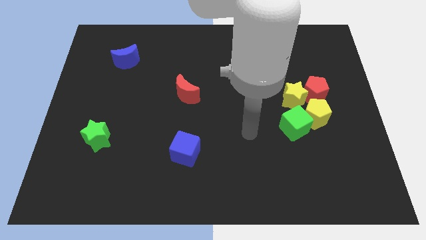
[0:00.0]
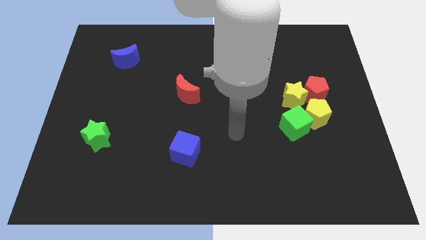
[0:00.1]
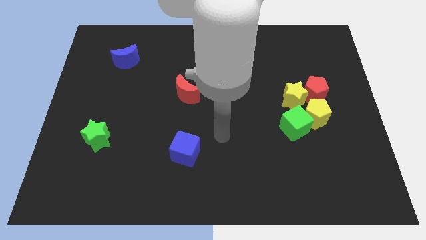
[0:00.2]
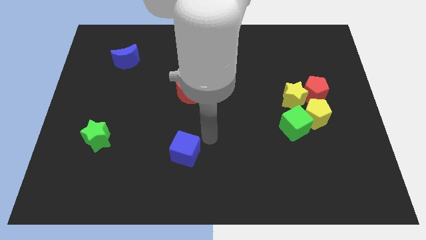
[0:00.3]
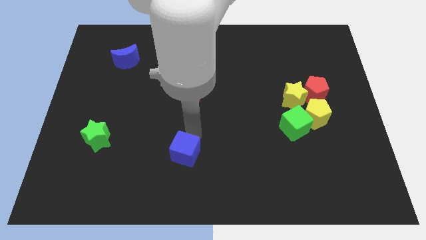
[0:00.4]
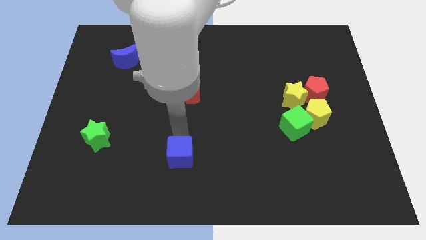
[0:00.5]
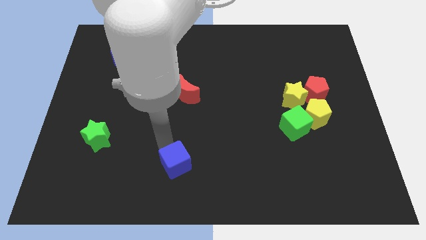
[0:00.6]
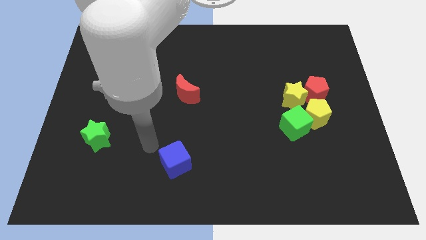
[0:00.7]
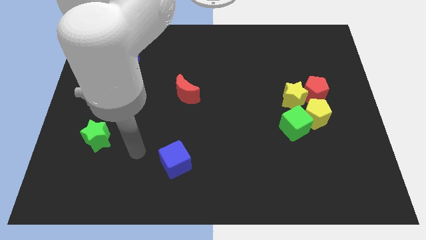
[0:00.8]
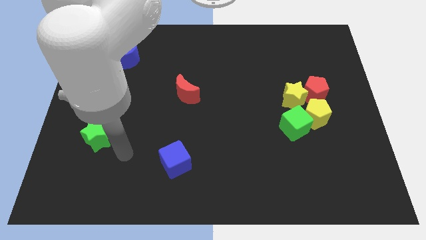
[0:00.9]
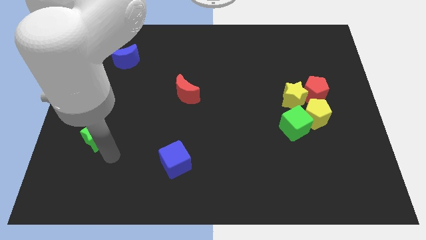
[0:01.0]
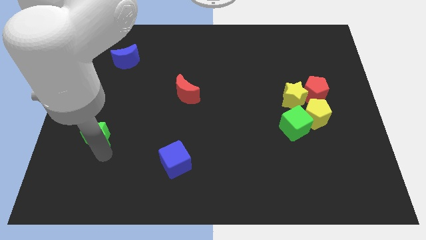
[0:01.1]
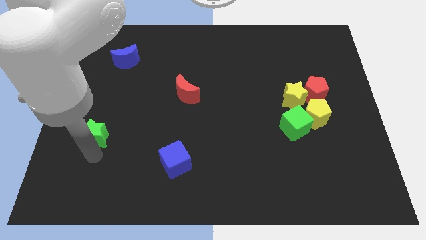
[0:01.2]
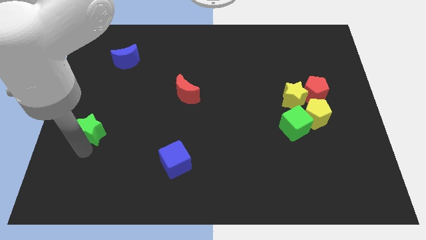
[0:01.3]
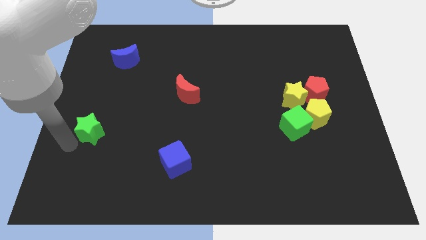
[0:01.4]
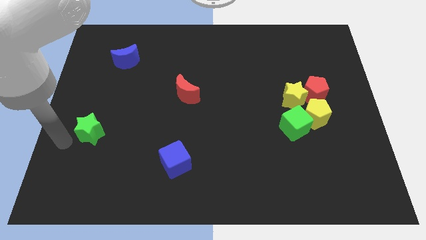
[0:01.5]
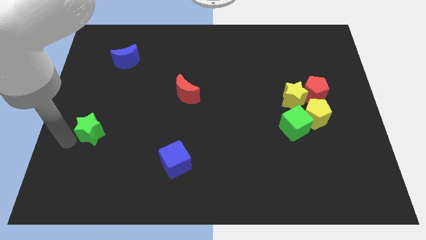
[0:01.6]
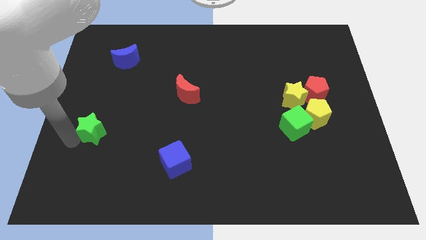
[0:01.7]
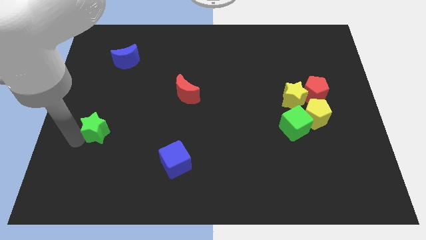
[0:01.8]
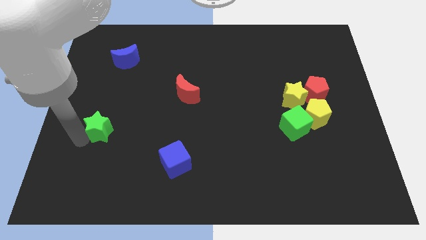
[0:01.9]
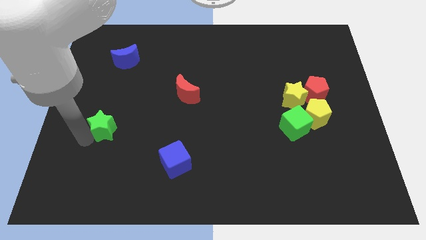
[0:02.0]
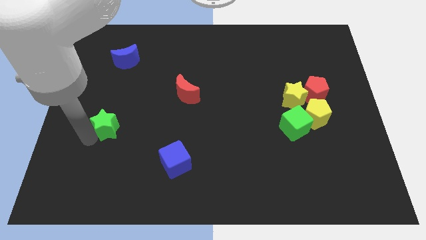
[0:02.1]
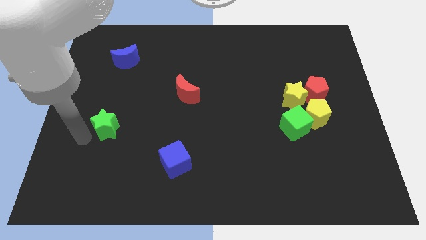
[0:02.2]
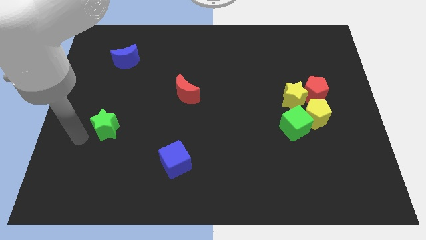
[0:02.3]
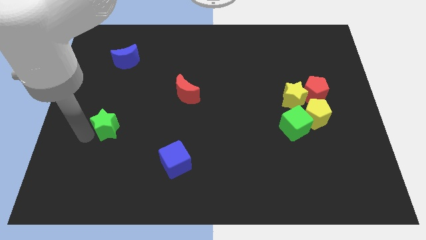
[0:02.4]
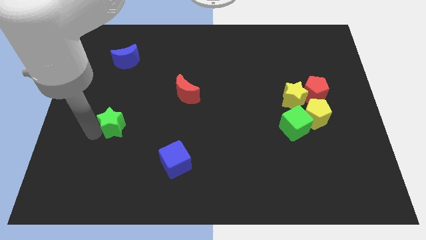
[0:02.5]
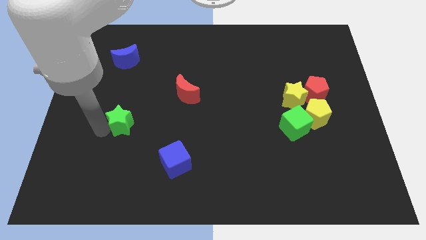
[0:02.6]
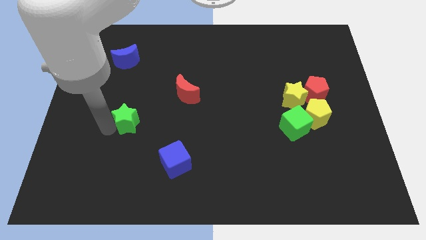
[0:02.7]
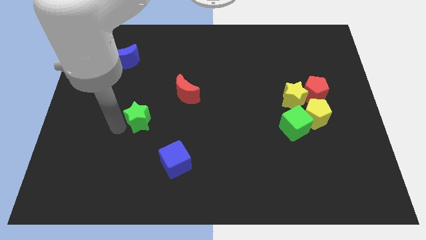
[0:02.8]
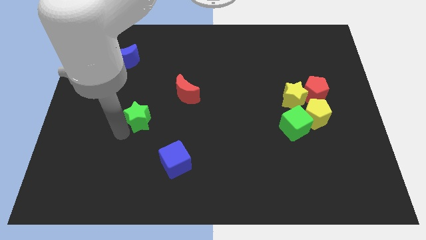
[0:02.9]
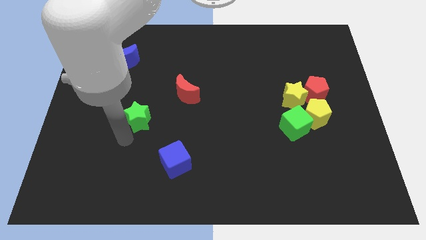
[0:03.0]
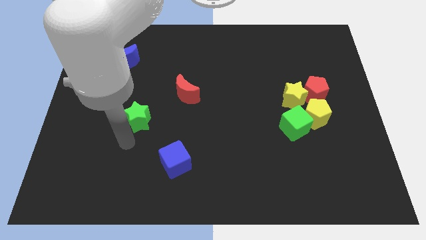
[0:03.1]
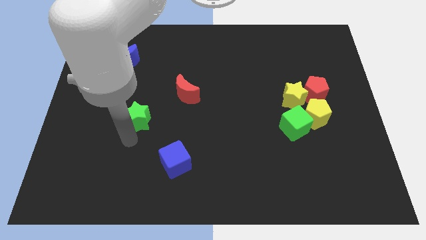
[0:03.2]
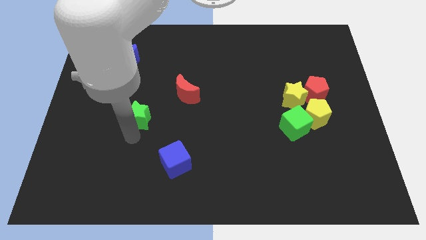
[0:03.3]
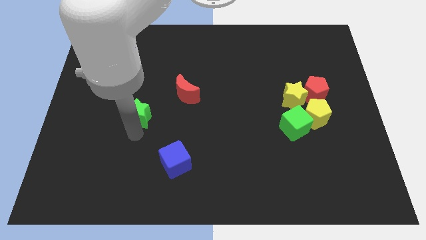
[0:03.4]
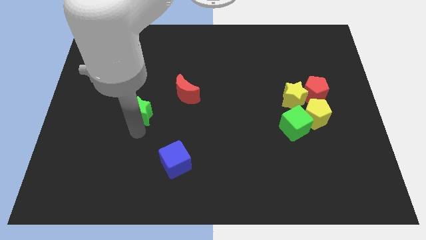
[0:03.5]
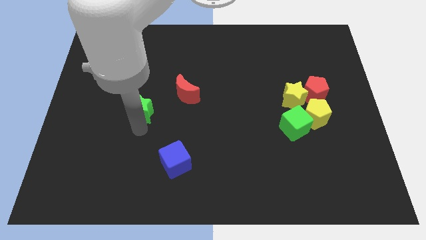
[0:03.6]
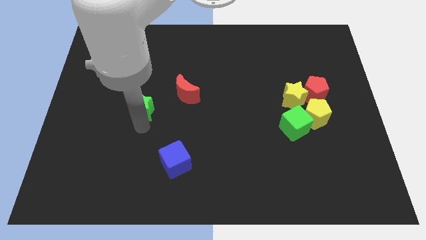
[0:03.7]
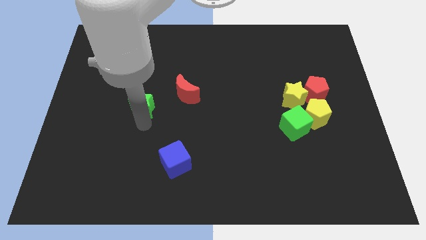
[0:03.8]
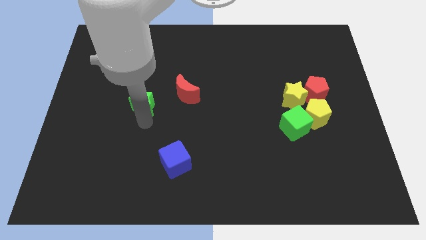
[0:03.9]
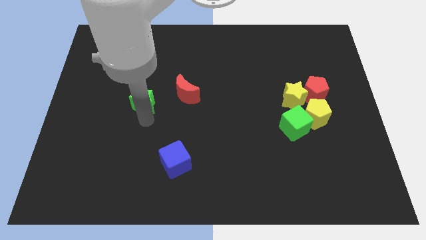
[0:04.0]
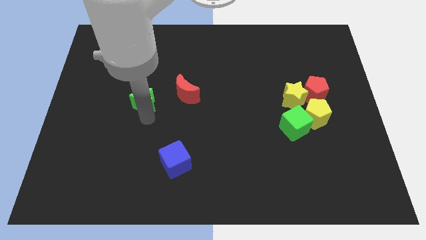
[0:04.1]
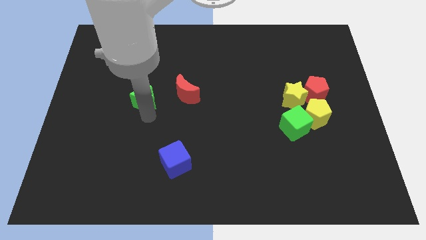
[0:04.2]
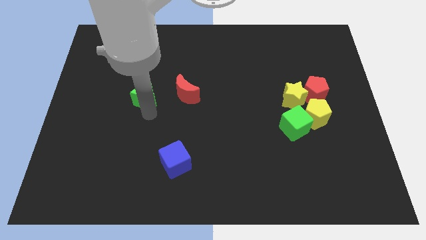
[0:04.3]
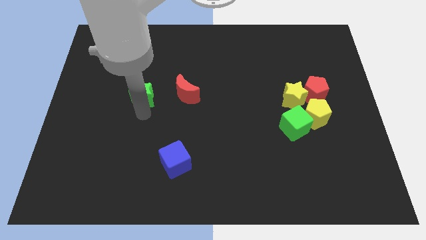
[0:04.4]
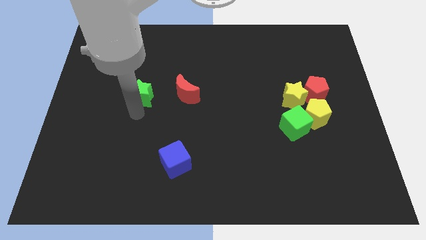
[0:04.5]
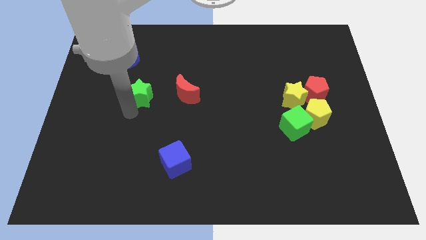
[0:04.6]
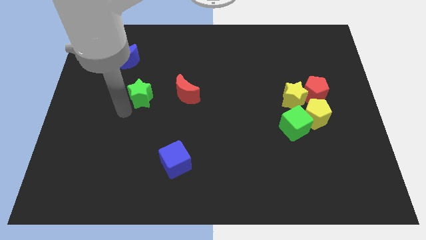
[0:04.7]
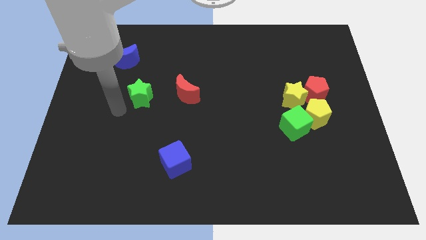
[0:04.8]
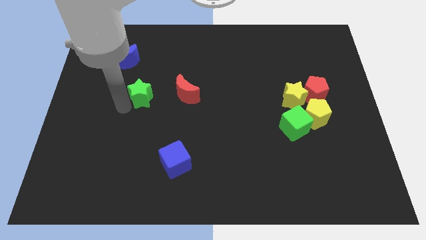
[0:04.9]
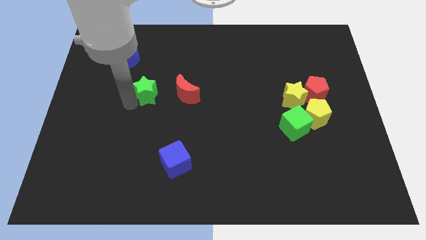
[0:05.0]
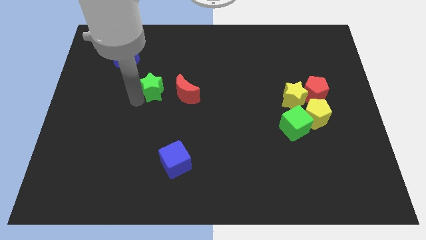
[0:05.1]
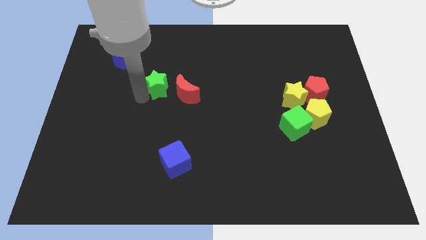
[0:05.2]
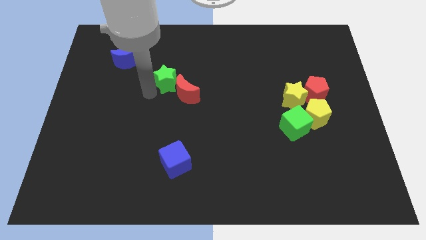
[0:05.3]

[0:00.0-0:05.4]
push the green star up and right diagonally

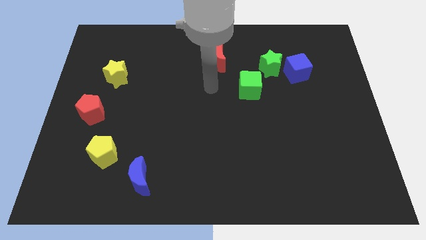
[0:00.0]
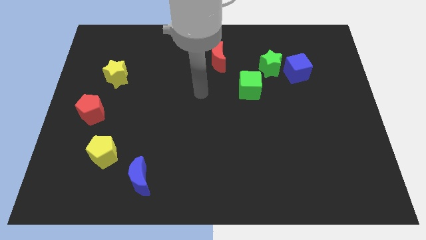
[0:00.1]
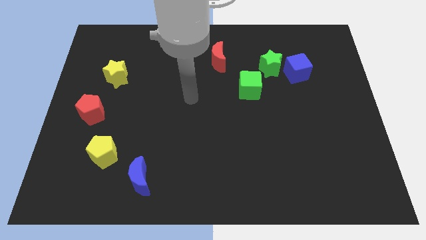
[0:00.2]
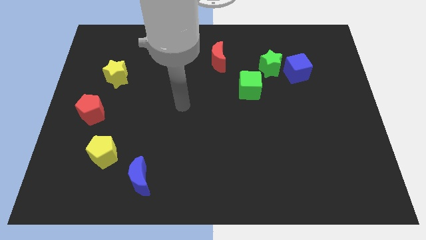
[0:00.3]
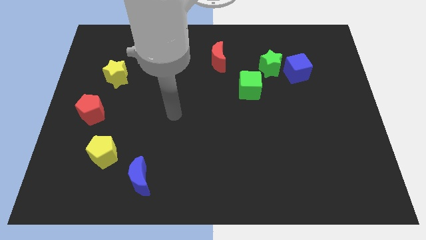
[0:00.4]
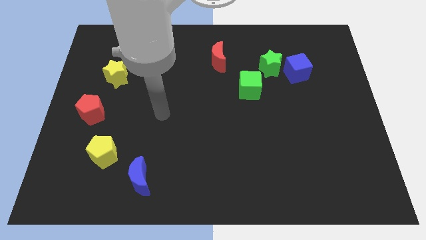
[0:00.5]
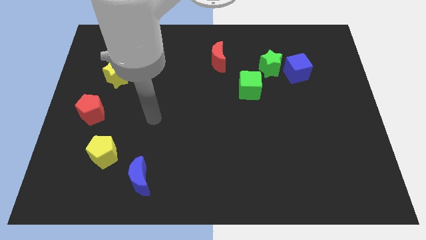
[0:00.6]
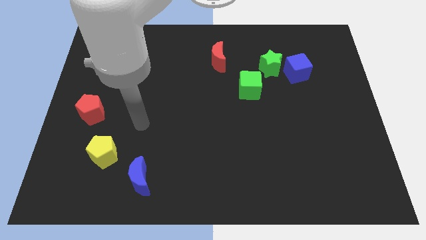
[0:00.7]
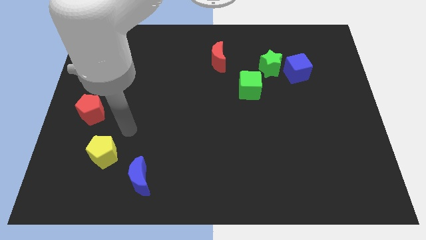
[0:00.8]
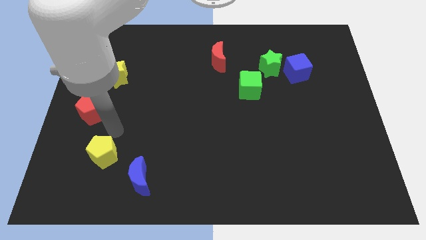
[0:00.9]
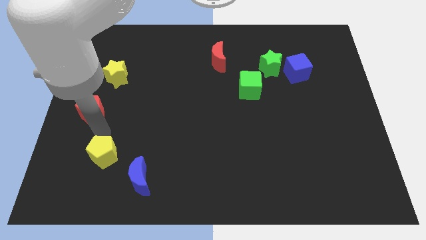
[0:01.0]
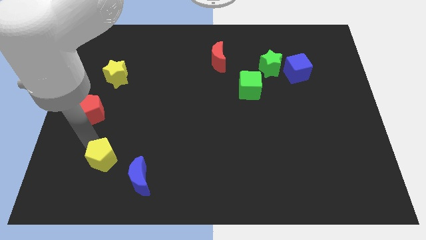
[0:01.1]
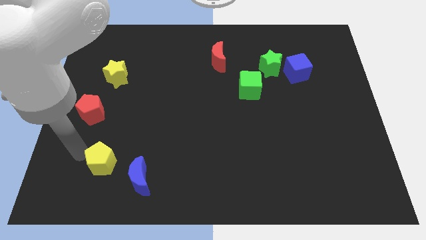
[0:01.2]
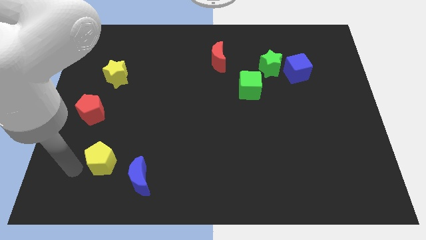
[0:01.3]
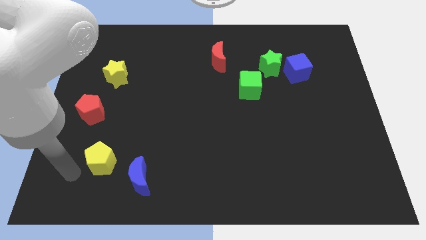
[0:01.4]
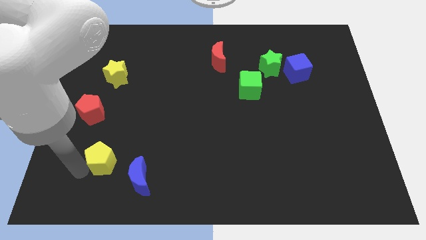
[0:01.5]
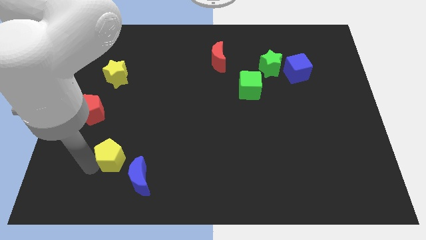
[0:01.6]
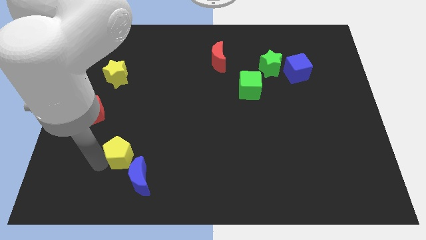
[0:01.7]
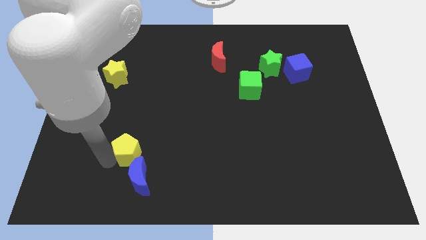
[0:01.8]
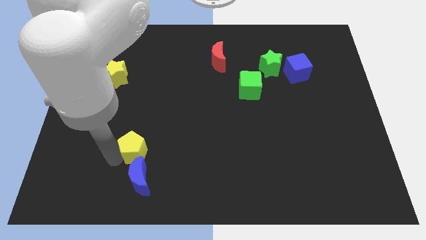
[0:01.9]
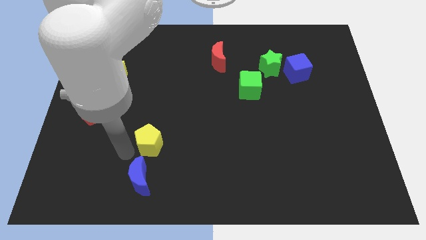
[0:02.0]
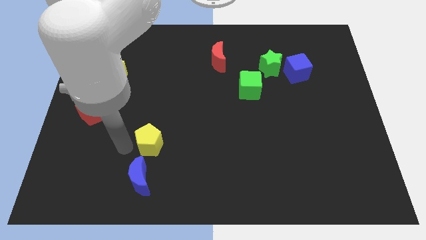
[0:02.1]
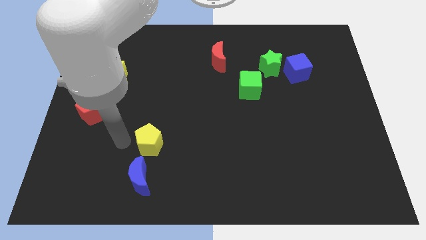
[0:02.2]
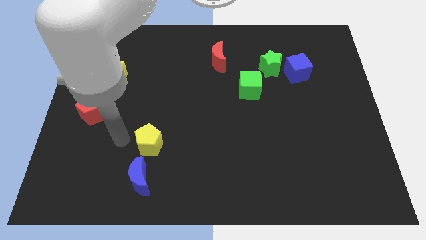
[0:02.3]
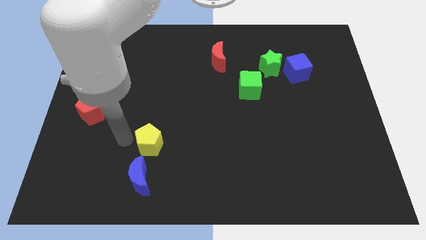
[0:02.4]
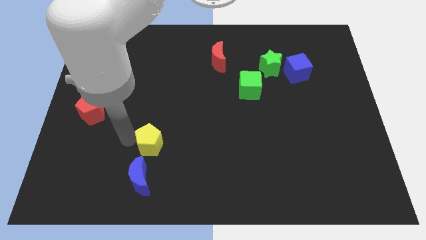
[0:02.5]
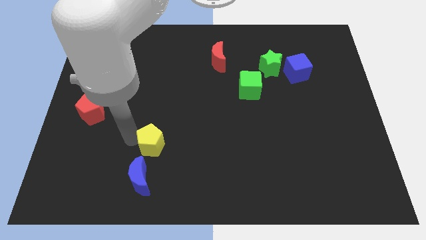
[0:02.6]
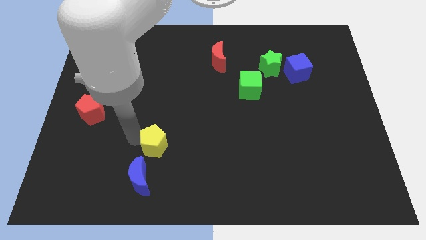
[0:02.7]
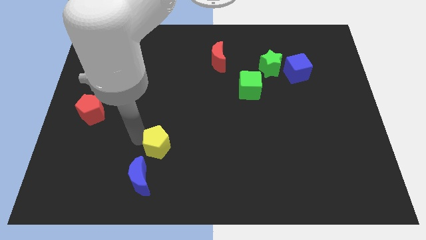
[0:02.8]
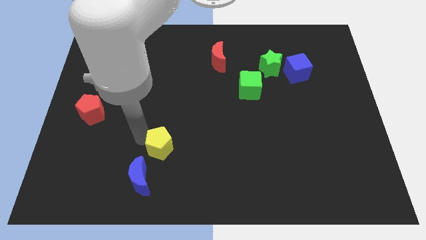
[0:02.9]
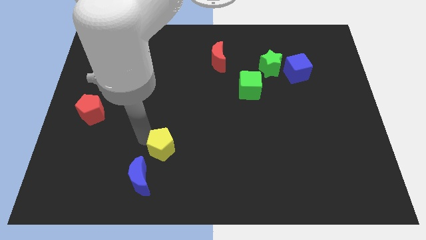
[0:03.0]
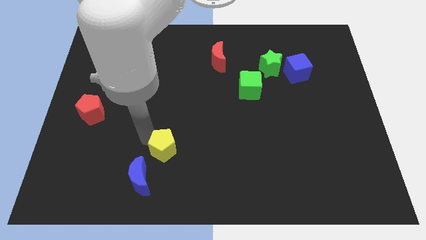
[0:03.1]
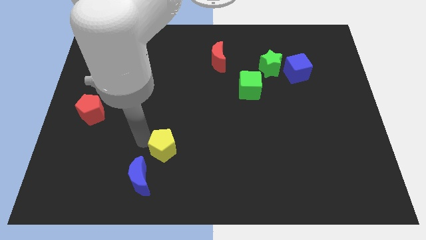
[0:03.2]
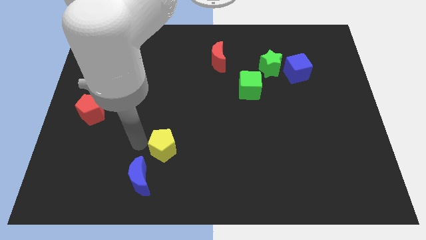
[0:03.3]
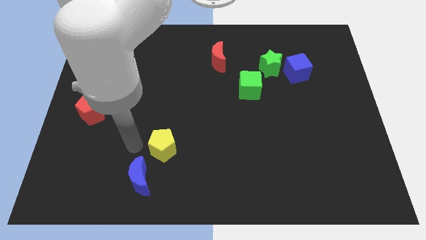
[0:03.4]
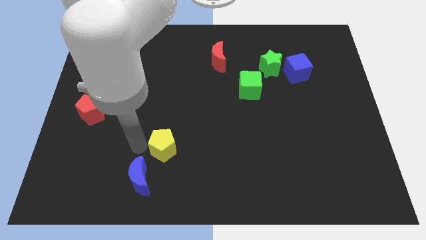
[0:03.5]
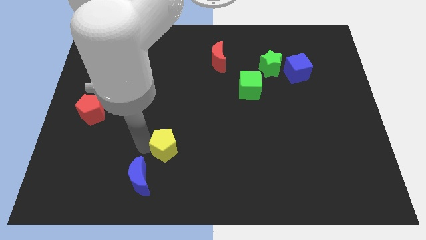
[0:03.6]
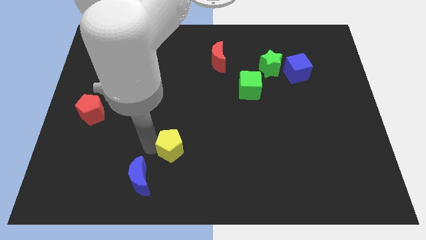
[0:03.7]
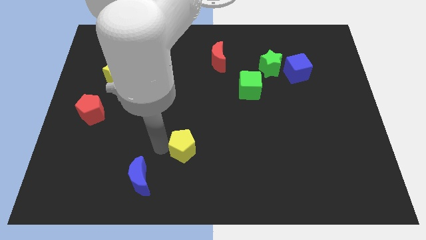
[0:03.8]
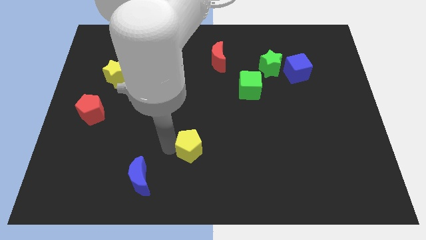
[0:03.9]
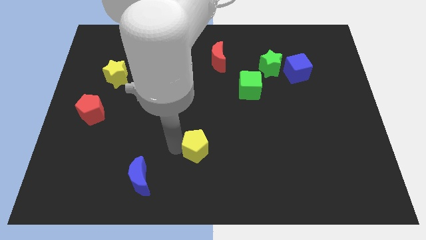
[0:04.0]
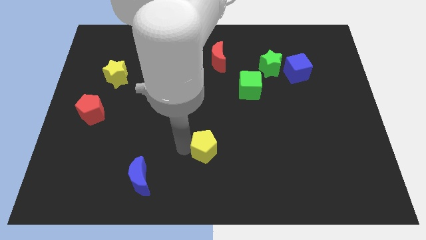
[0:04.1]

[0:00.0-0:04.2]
move the yellow pentagon to the right
